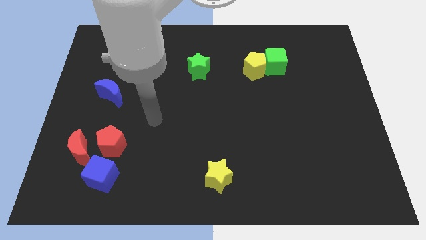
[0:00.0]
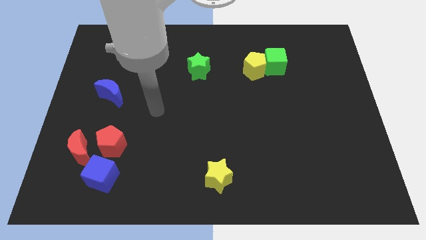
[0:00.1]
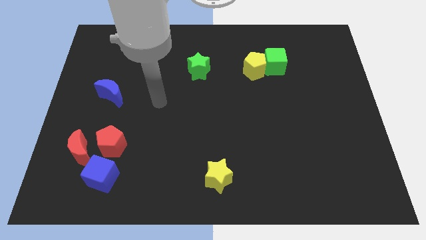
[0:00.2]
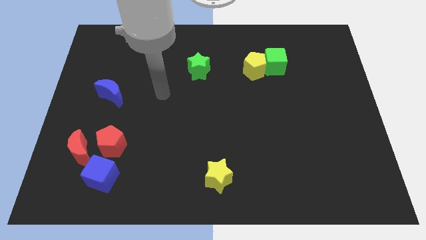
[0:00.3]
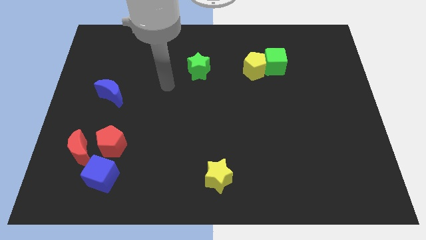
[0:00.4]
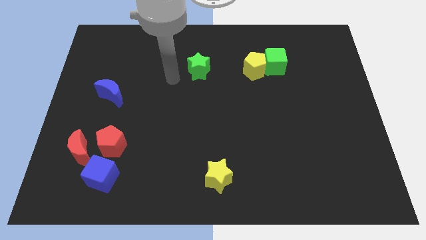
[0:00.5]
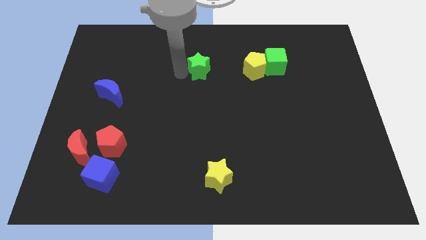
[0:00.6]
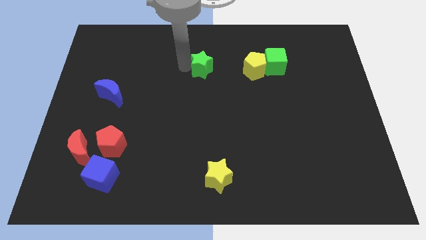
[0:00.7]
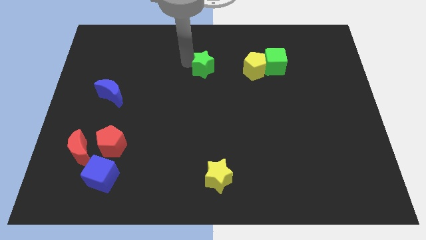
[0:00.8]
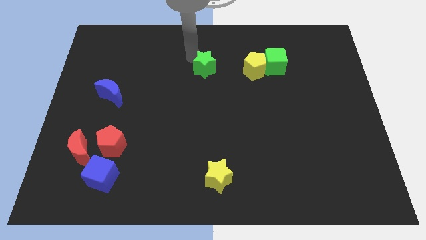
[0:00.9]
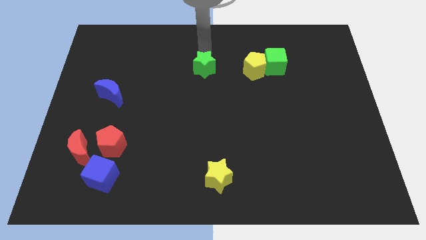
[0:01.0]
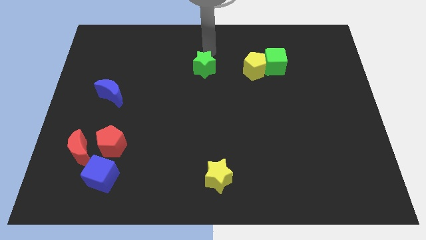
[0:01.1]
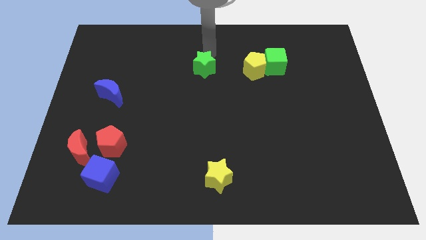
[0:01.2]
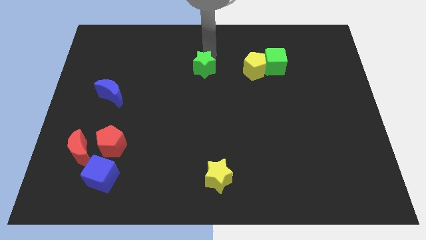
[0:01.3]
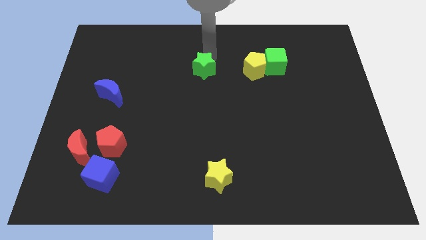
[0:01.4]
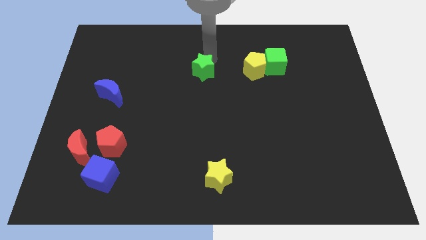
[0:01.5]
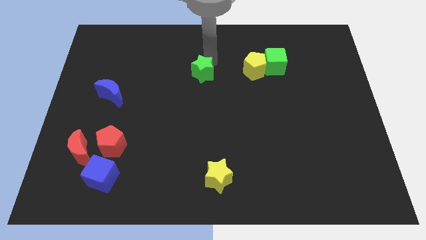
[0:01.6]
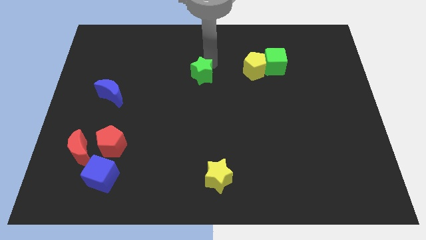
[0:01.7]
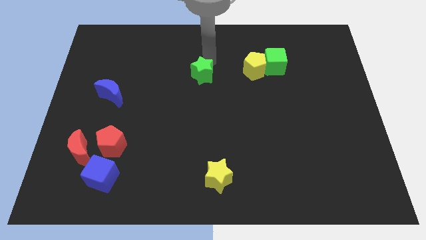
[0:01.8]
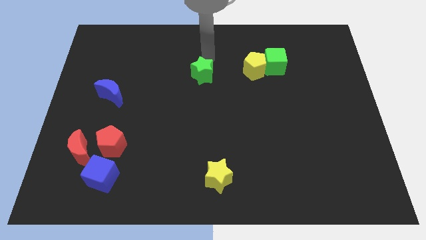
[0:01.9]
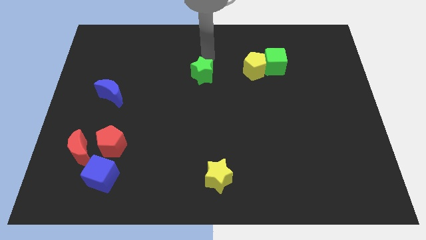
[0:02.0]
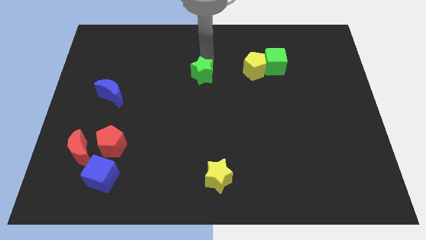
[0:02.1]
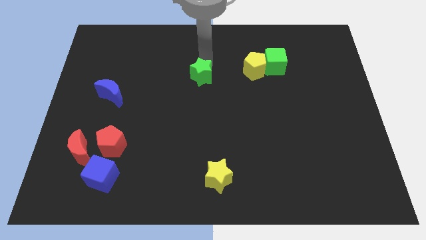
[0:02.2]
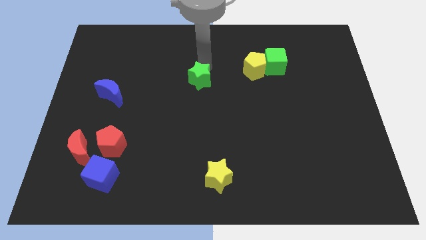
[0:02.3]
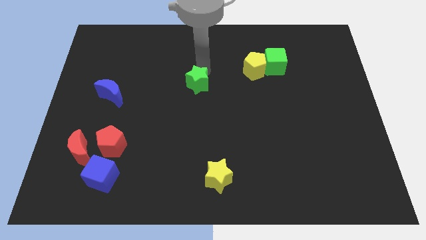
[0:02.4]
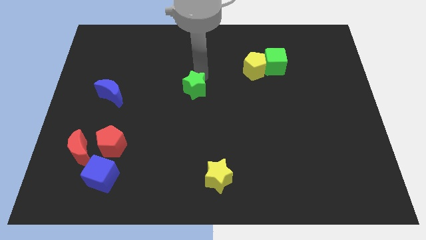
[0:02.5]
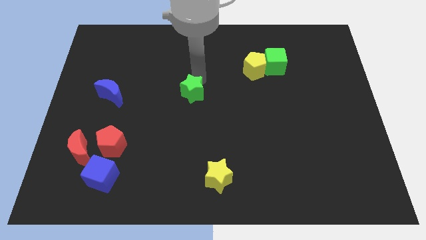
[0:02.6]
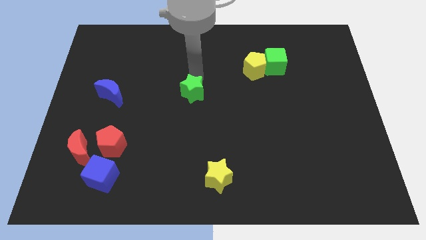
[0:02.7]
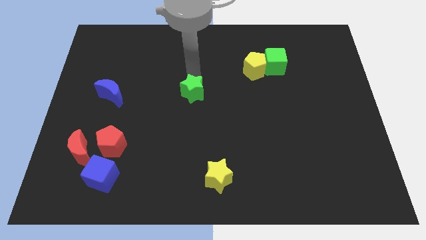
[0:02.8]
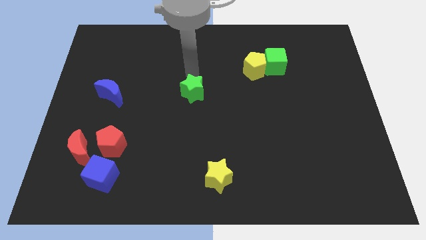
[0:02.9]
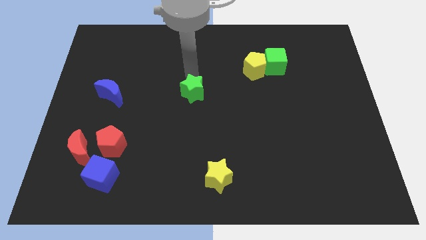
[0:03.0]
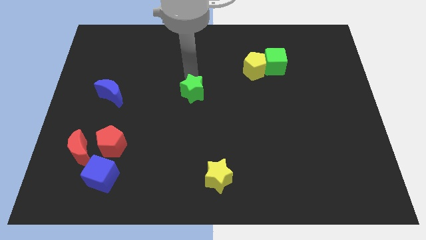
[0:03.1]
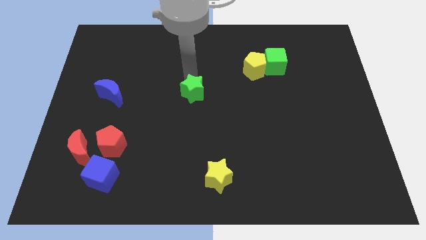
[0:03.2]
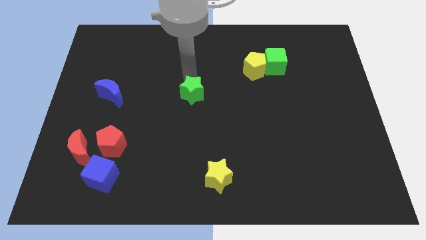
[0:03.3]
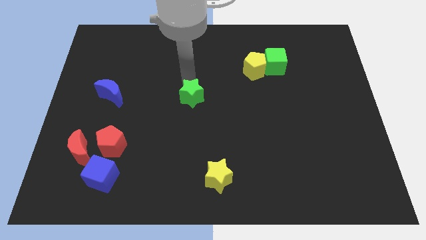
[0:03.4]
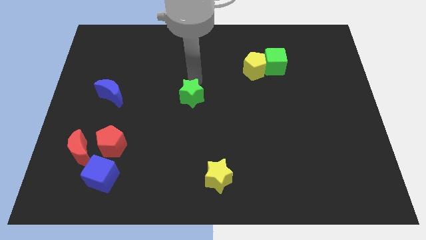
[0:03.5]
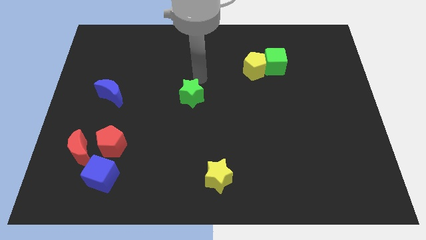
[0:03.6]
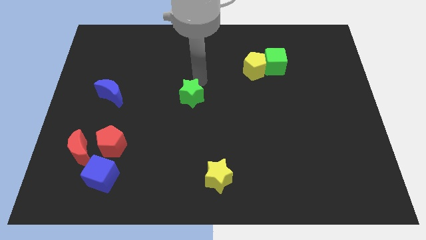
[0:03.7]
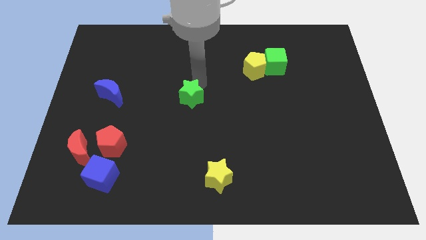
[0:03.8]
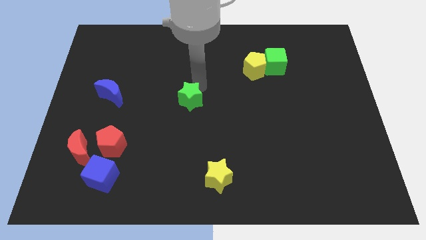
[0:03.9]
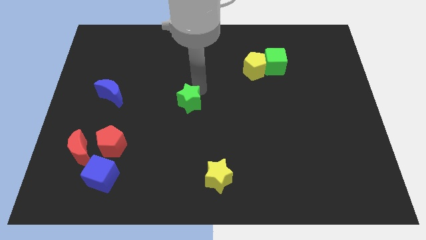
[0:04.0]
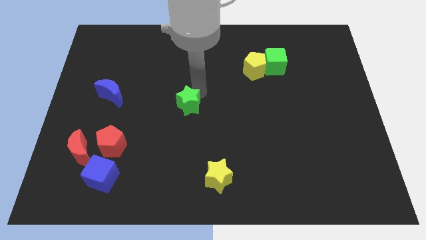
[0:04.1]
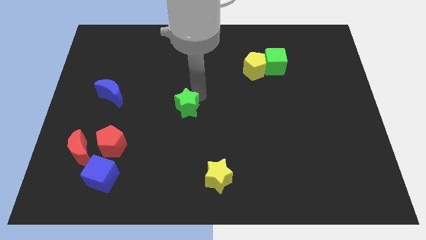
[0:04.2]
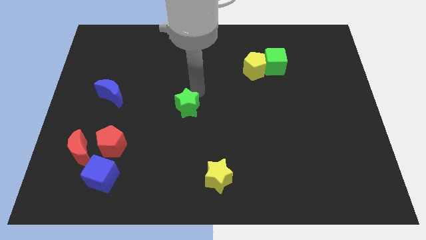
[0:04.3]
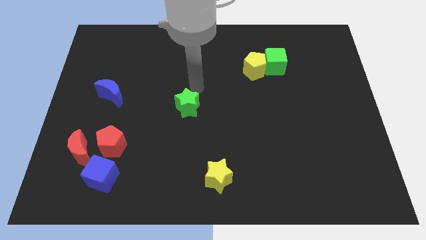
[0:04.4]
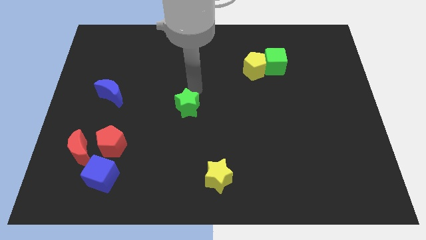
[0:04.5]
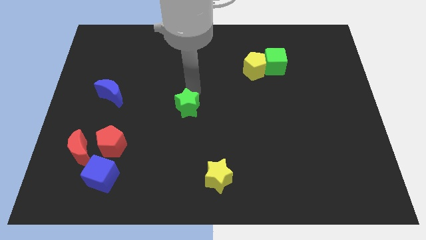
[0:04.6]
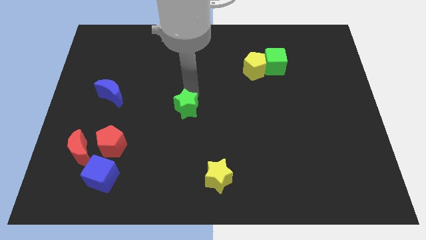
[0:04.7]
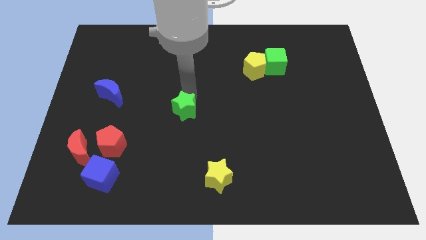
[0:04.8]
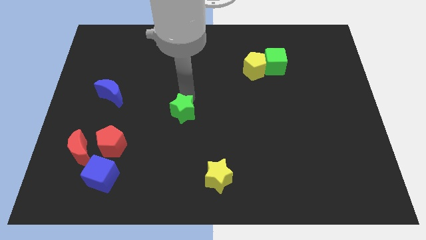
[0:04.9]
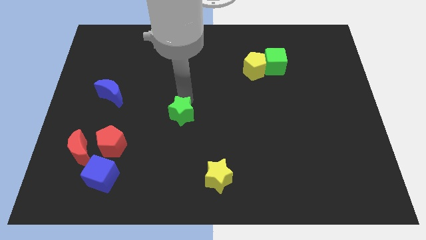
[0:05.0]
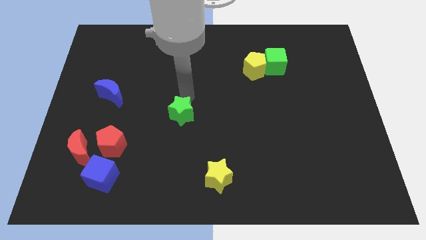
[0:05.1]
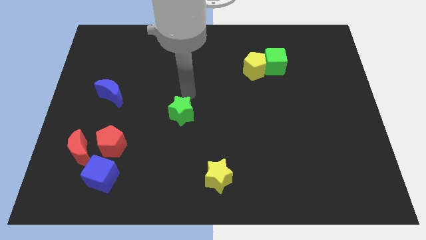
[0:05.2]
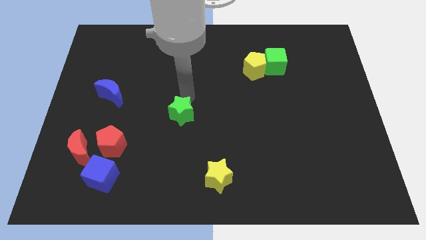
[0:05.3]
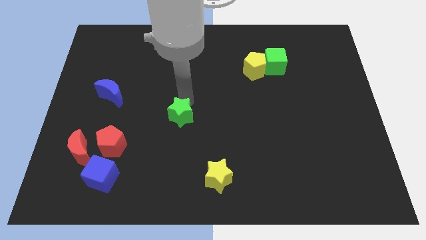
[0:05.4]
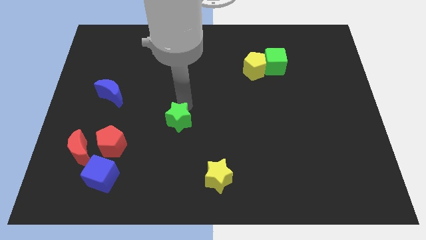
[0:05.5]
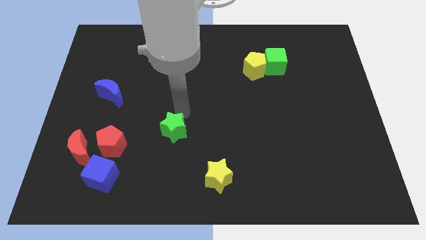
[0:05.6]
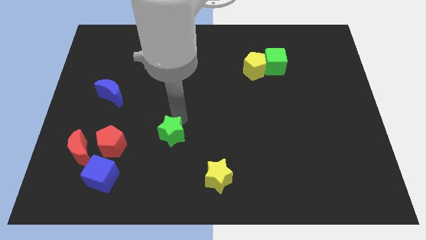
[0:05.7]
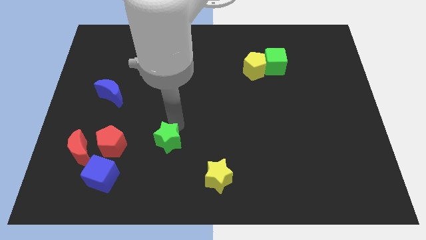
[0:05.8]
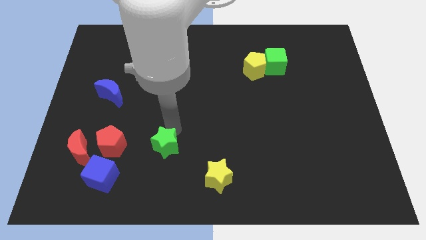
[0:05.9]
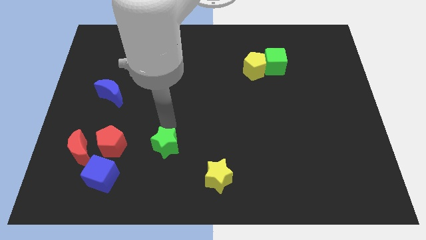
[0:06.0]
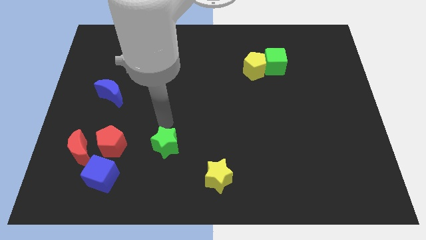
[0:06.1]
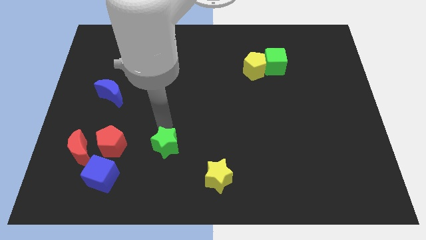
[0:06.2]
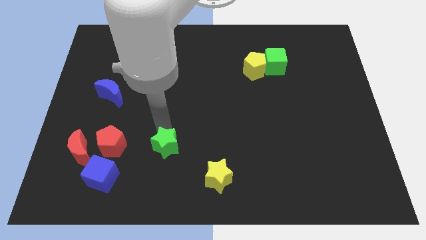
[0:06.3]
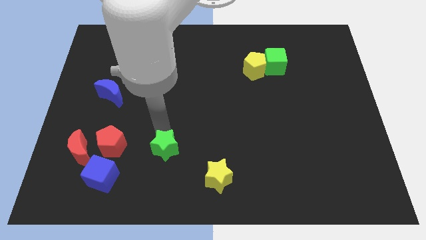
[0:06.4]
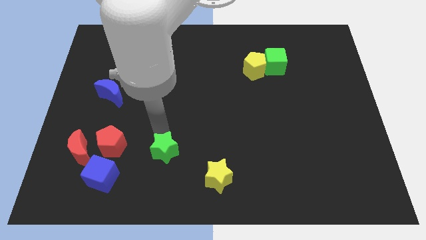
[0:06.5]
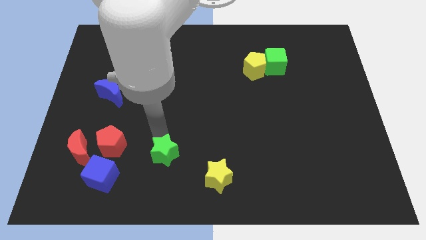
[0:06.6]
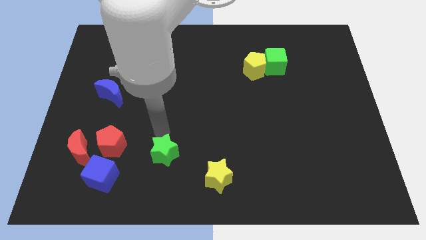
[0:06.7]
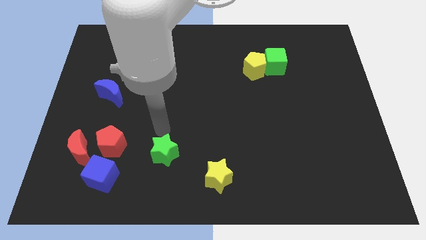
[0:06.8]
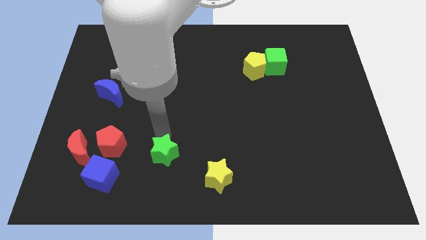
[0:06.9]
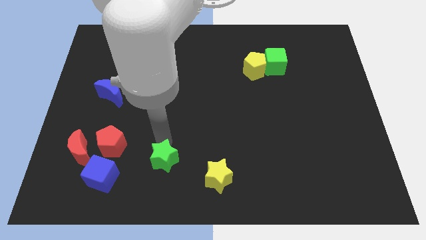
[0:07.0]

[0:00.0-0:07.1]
put the green star to the left of the yellow star
